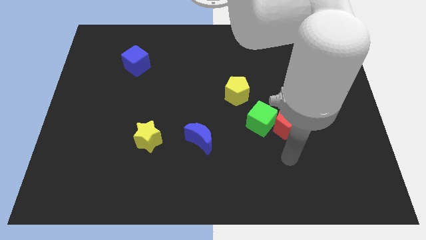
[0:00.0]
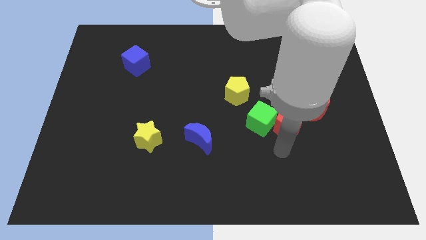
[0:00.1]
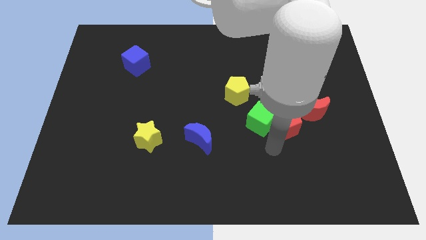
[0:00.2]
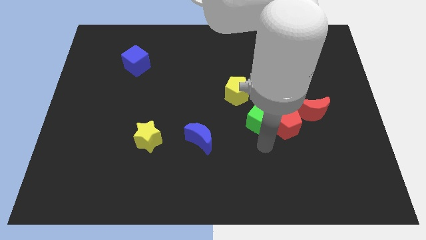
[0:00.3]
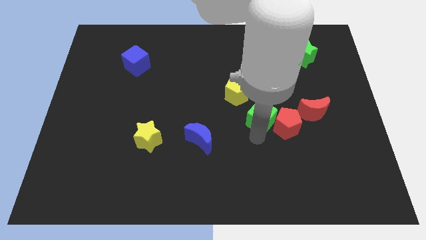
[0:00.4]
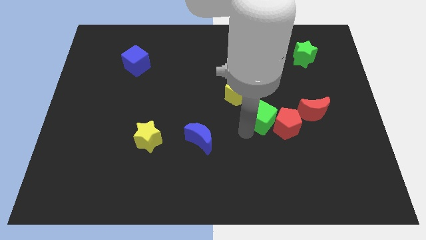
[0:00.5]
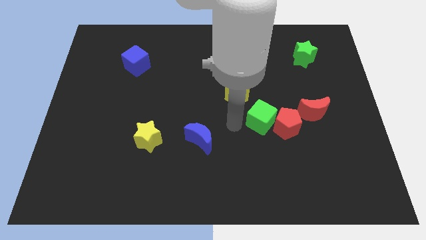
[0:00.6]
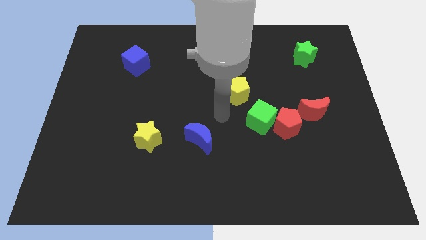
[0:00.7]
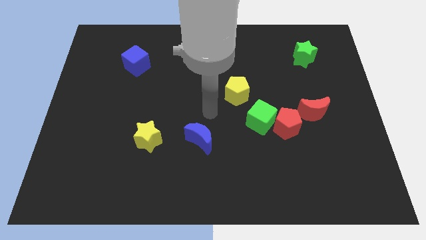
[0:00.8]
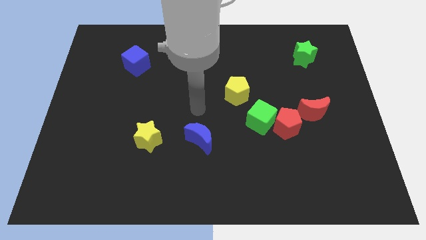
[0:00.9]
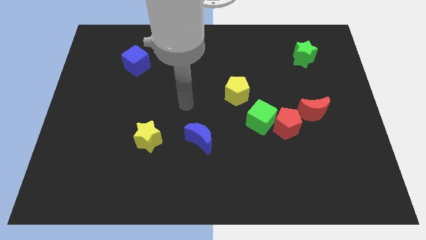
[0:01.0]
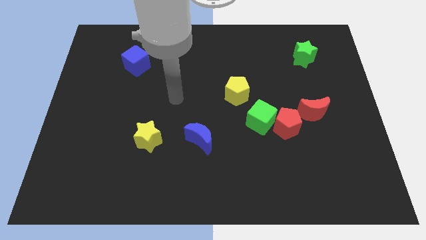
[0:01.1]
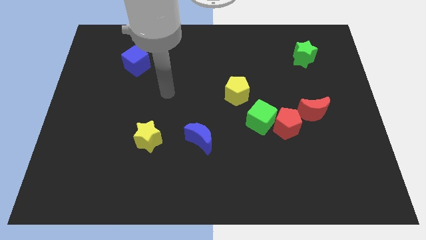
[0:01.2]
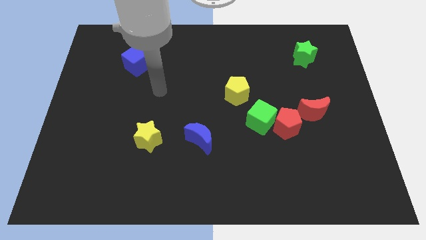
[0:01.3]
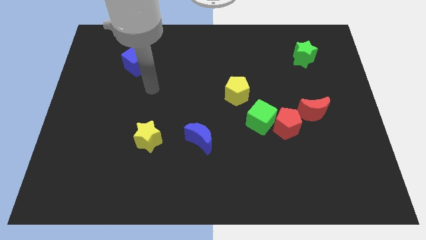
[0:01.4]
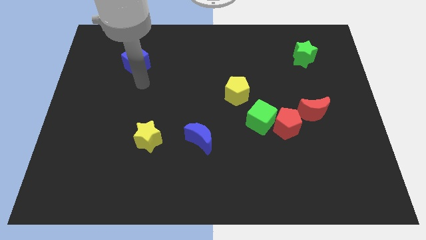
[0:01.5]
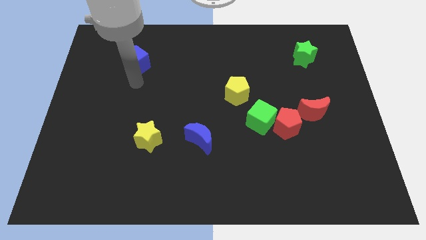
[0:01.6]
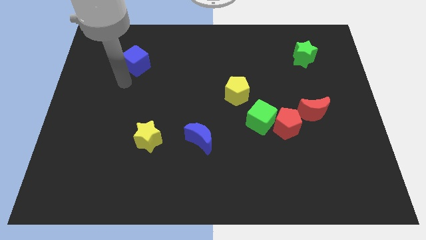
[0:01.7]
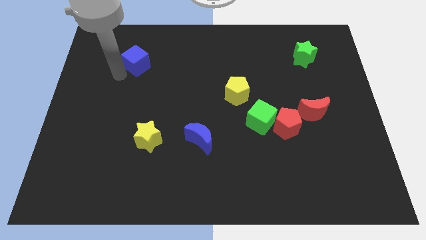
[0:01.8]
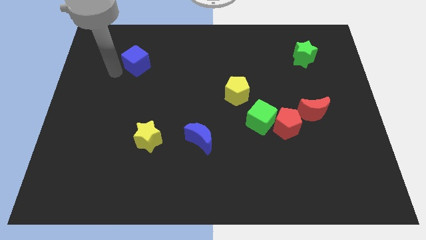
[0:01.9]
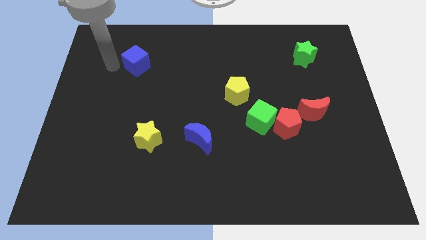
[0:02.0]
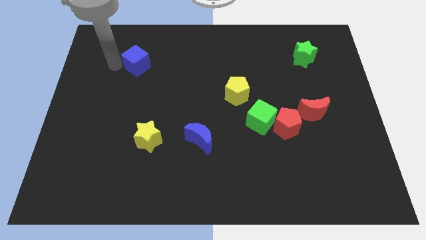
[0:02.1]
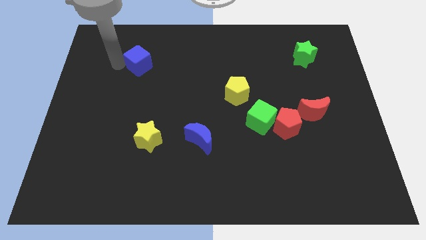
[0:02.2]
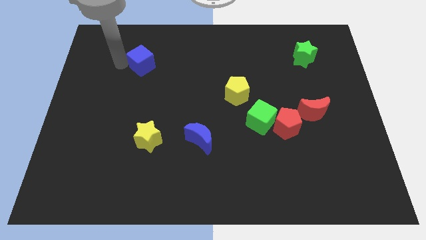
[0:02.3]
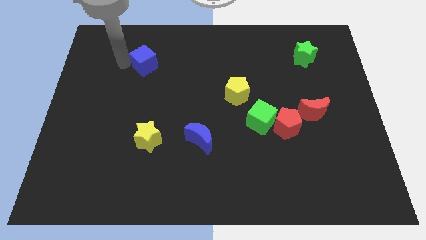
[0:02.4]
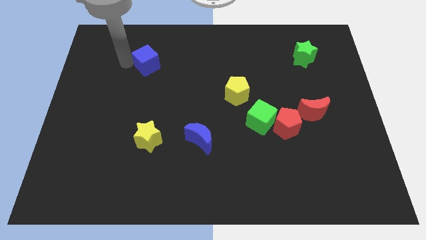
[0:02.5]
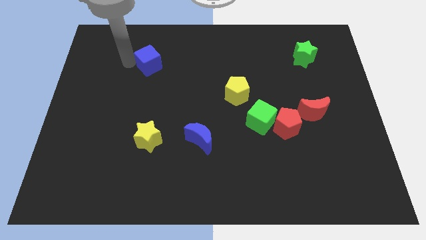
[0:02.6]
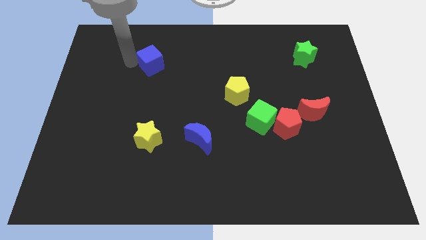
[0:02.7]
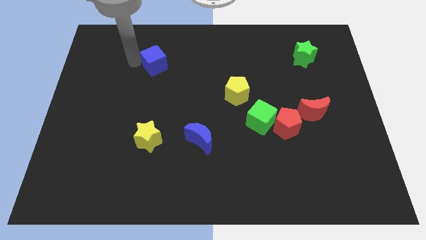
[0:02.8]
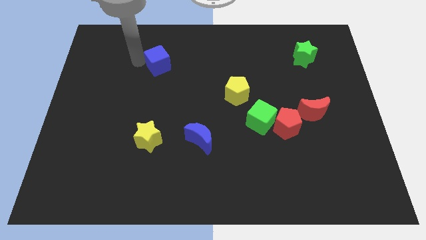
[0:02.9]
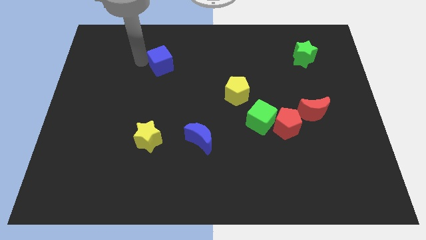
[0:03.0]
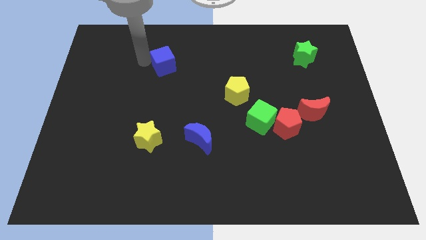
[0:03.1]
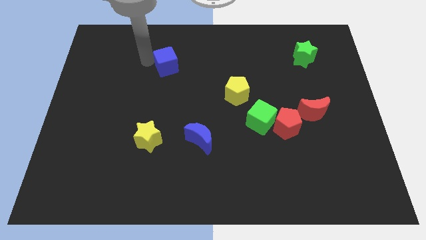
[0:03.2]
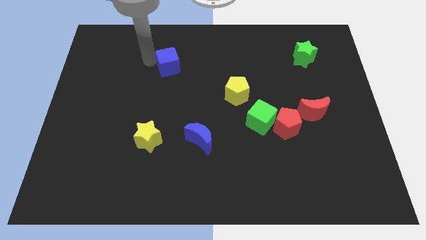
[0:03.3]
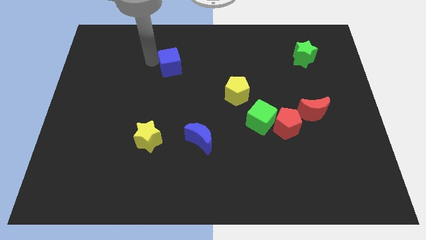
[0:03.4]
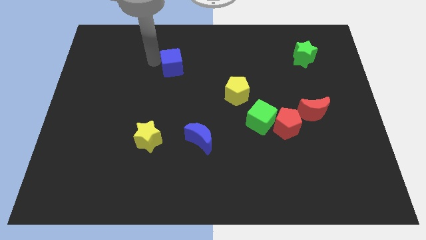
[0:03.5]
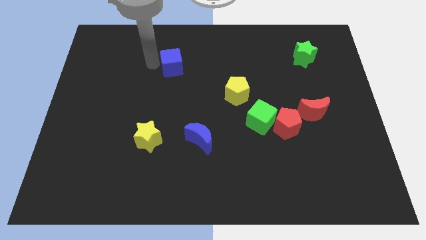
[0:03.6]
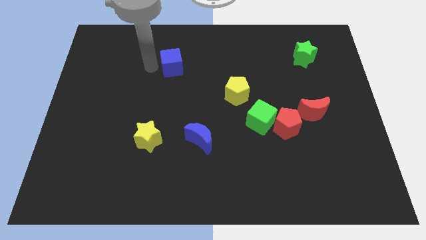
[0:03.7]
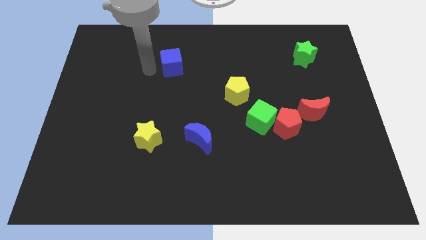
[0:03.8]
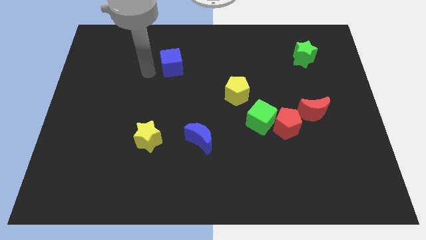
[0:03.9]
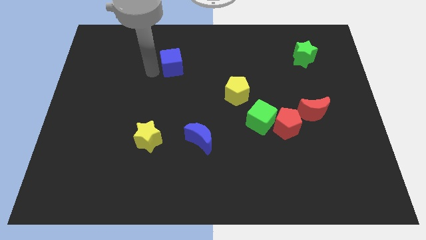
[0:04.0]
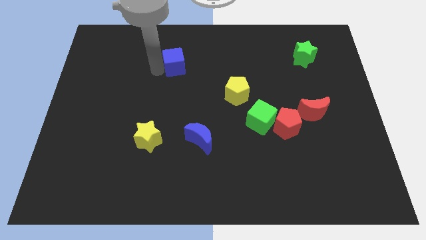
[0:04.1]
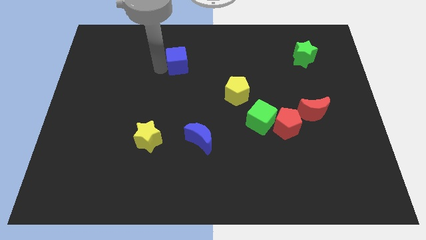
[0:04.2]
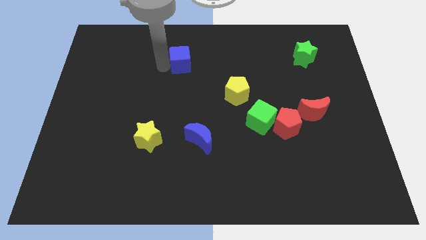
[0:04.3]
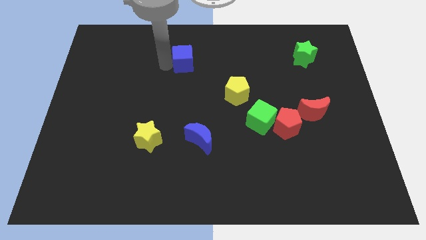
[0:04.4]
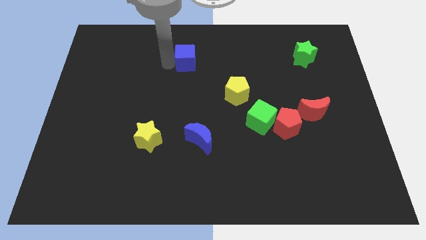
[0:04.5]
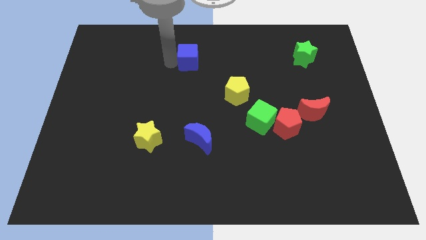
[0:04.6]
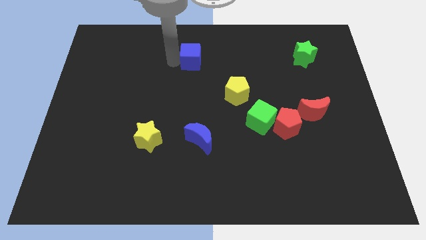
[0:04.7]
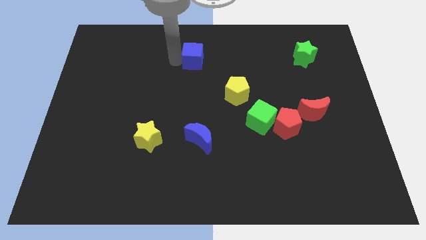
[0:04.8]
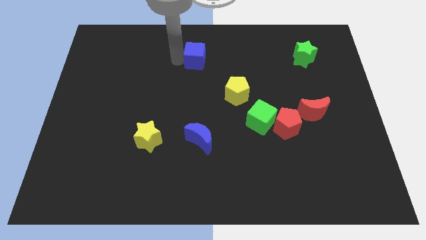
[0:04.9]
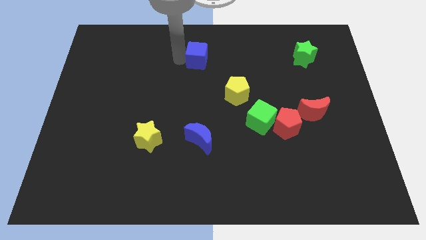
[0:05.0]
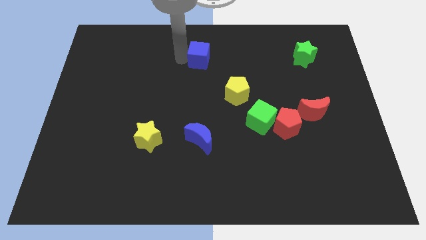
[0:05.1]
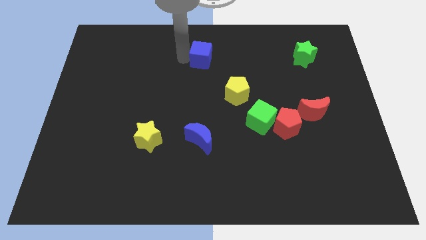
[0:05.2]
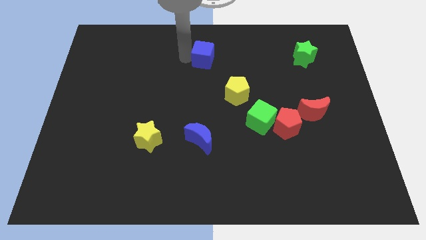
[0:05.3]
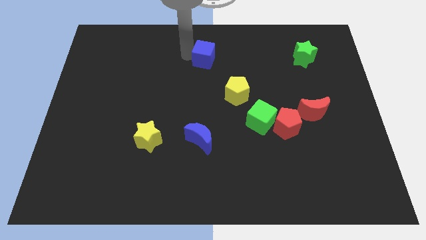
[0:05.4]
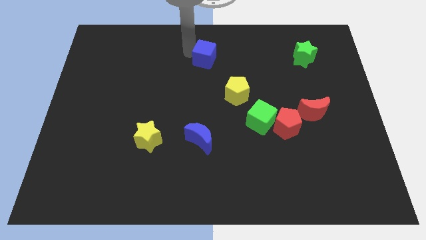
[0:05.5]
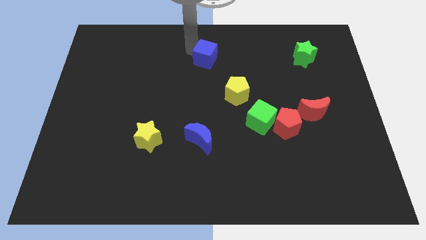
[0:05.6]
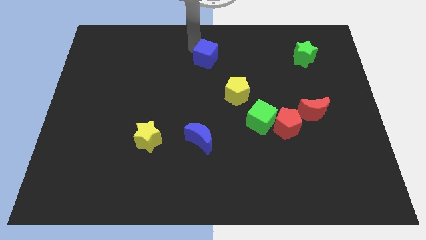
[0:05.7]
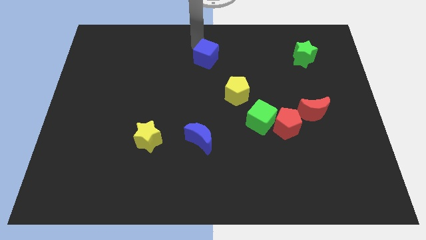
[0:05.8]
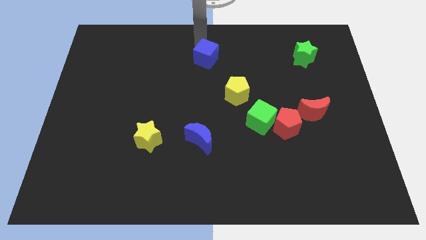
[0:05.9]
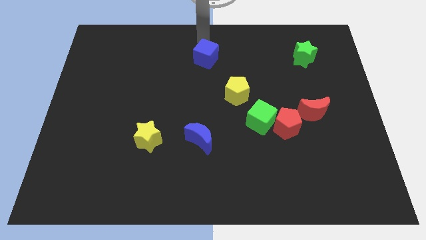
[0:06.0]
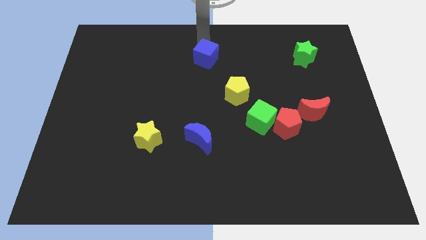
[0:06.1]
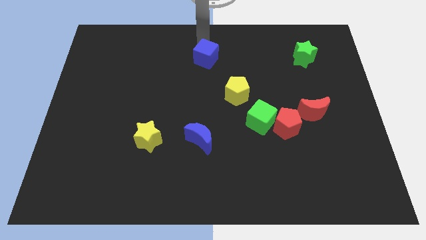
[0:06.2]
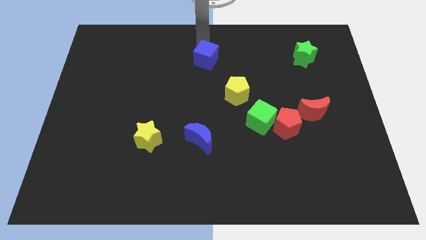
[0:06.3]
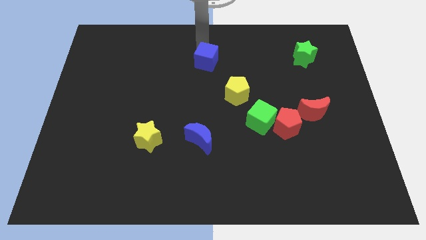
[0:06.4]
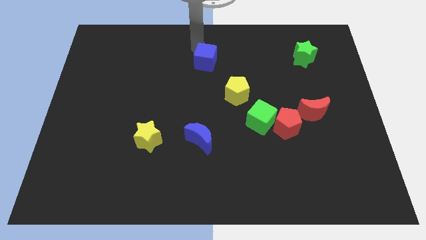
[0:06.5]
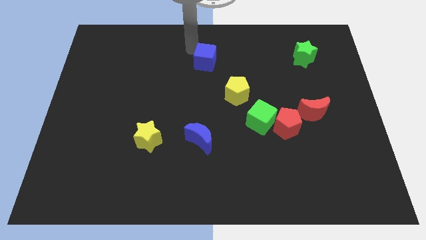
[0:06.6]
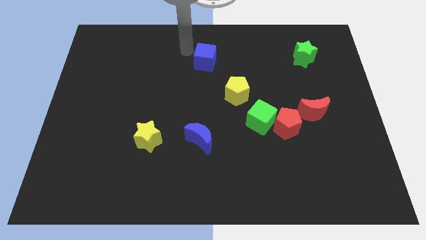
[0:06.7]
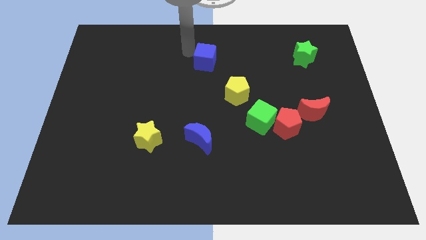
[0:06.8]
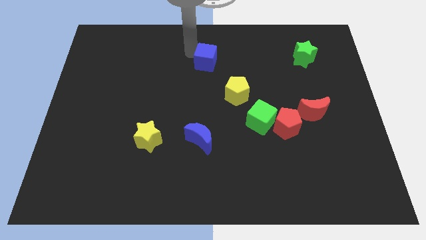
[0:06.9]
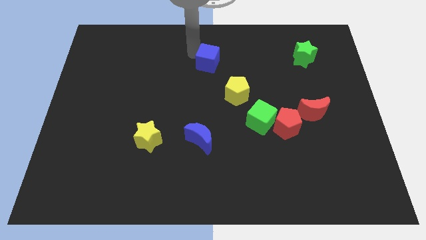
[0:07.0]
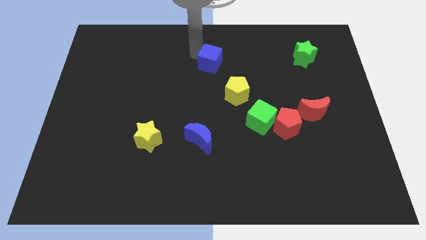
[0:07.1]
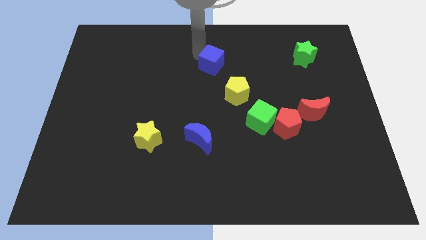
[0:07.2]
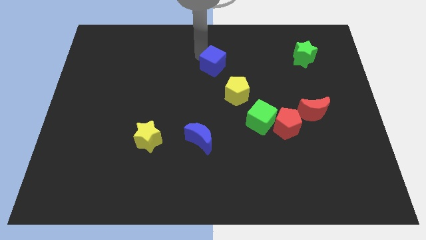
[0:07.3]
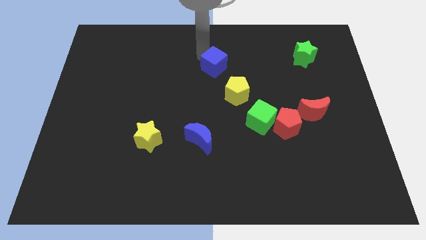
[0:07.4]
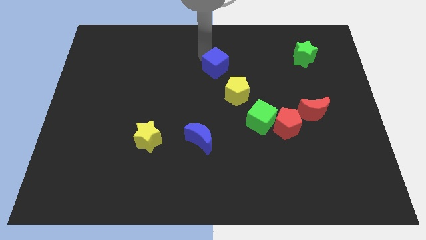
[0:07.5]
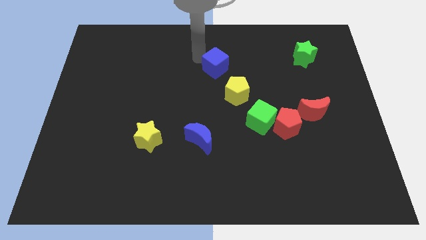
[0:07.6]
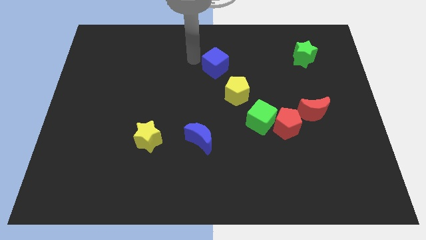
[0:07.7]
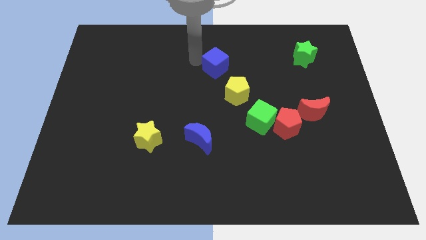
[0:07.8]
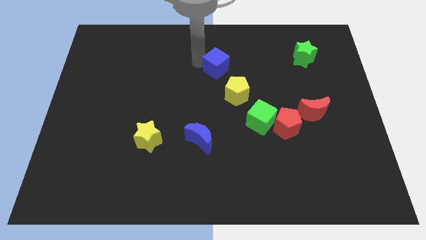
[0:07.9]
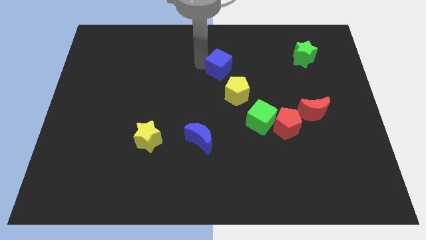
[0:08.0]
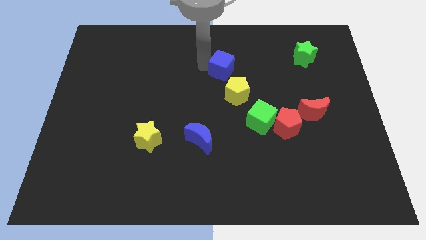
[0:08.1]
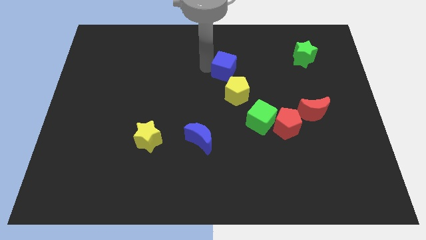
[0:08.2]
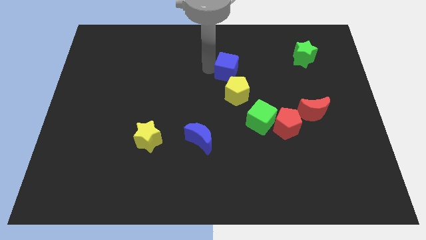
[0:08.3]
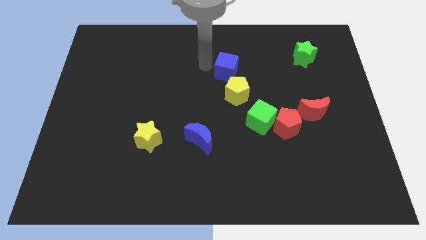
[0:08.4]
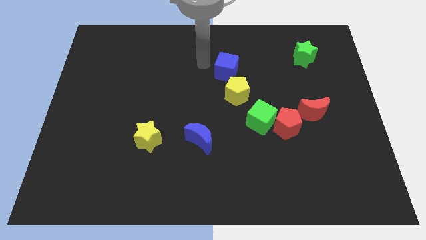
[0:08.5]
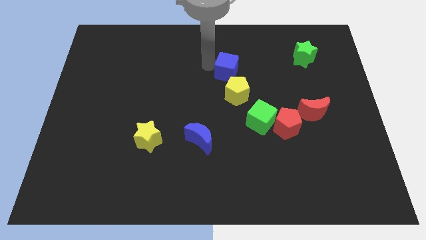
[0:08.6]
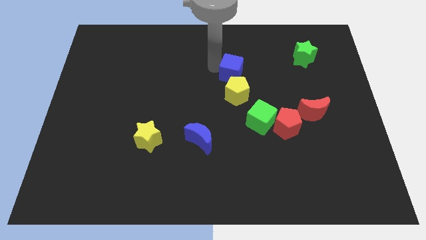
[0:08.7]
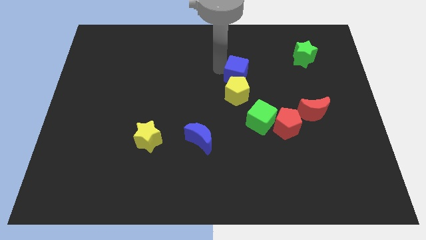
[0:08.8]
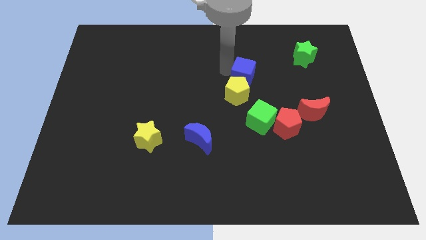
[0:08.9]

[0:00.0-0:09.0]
move the blue cube to the top side of the green cube
